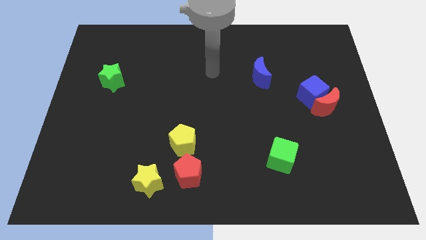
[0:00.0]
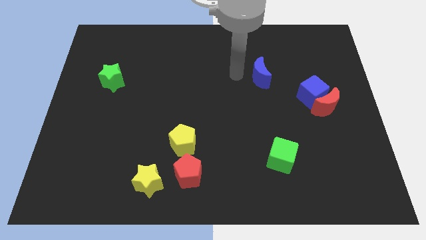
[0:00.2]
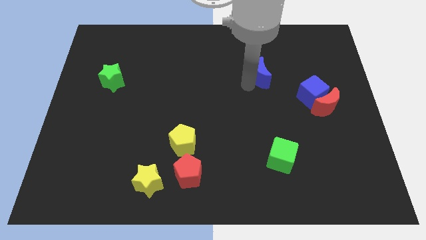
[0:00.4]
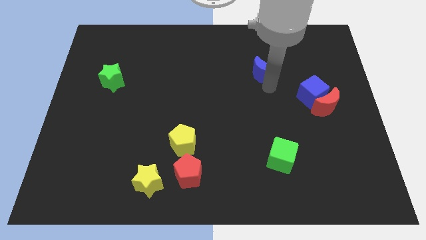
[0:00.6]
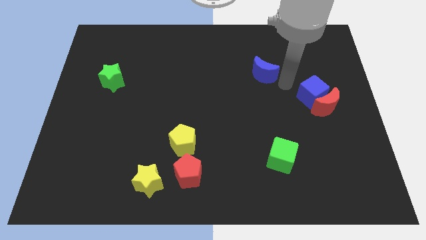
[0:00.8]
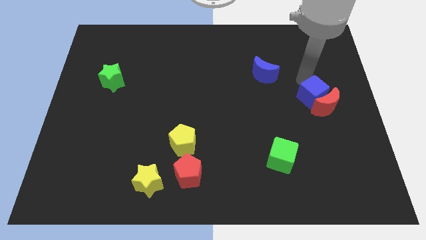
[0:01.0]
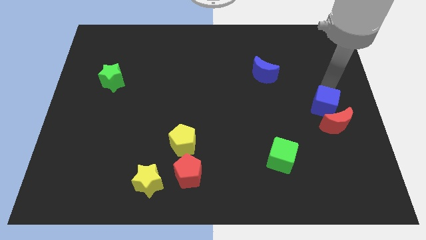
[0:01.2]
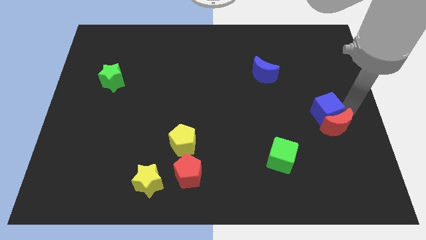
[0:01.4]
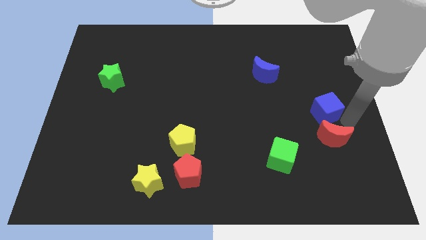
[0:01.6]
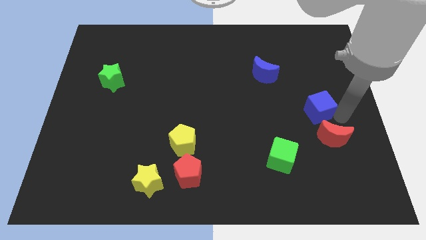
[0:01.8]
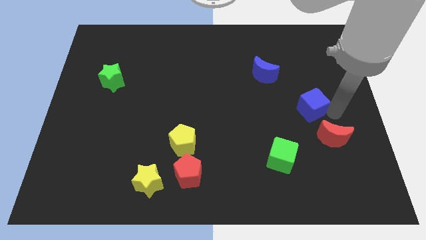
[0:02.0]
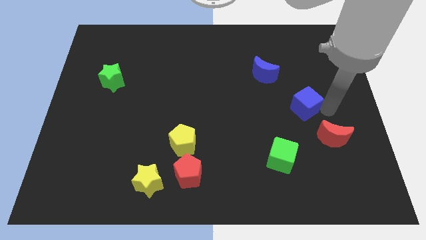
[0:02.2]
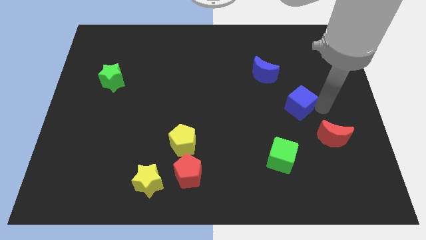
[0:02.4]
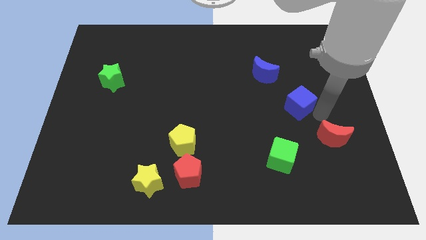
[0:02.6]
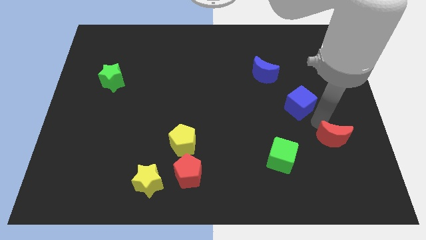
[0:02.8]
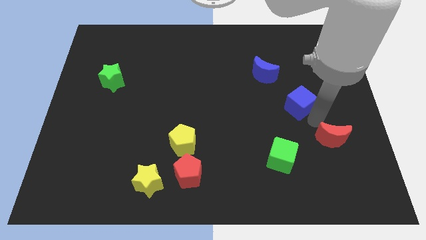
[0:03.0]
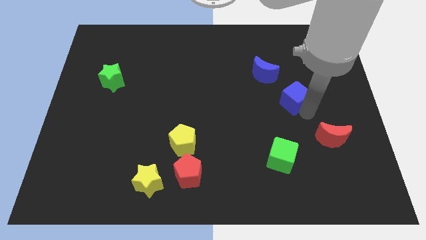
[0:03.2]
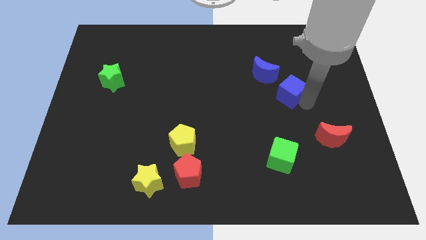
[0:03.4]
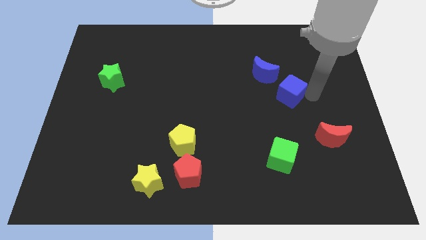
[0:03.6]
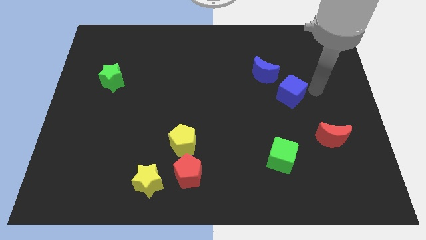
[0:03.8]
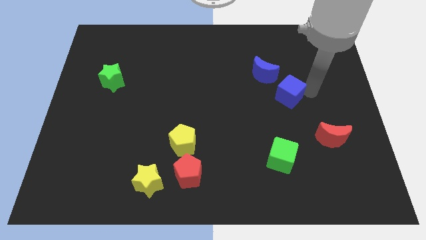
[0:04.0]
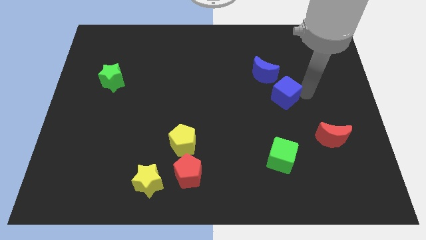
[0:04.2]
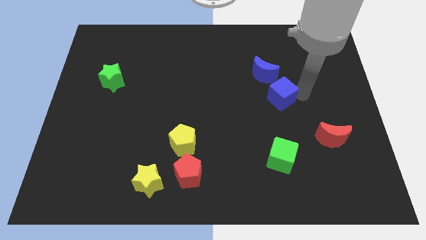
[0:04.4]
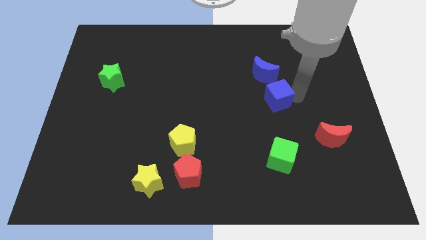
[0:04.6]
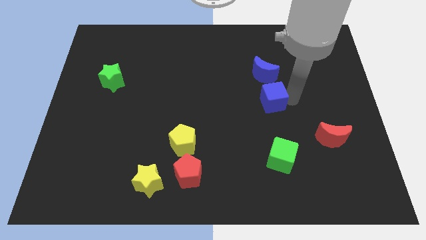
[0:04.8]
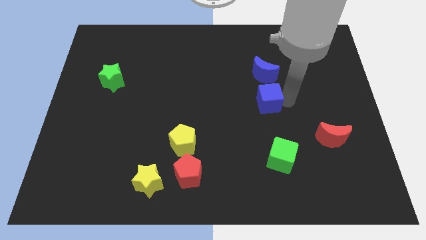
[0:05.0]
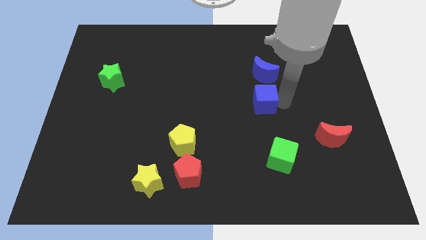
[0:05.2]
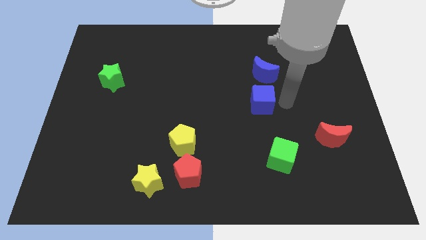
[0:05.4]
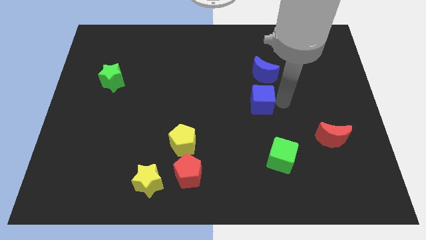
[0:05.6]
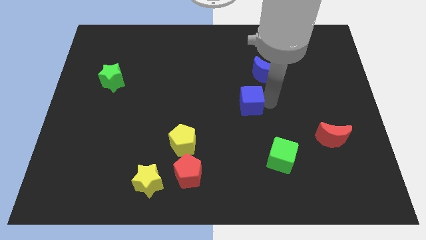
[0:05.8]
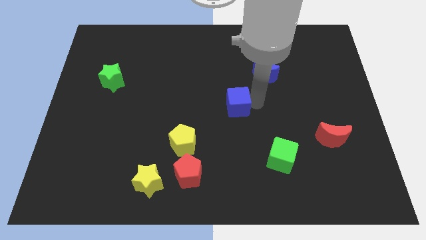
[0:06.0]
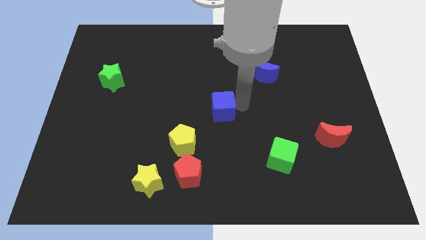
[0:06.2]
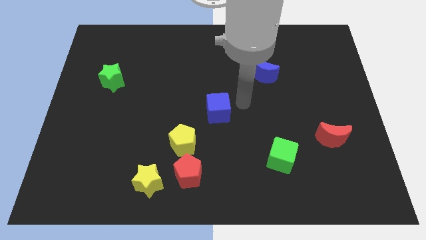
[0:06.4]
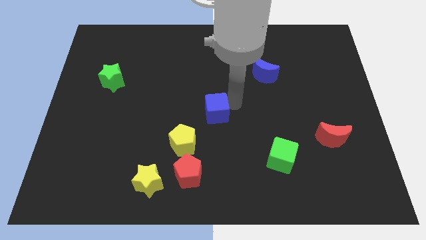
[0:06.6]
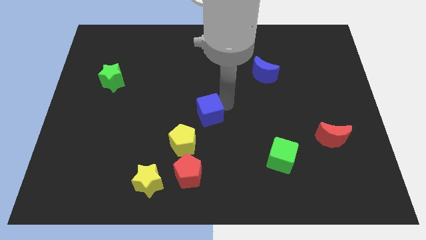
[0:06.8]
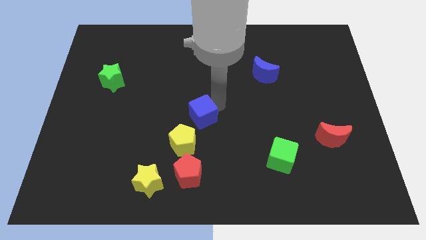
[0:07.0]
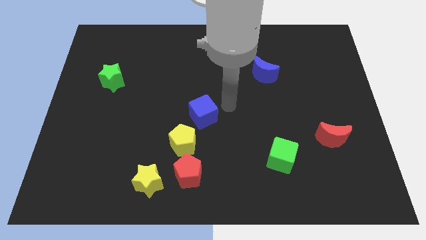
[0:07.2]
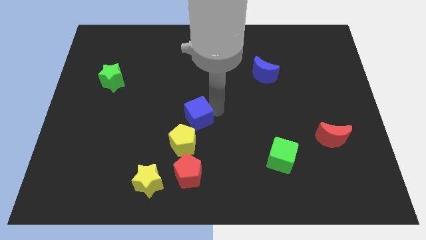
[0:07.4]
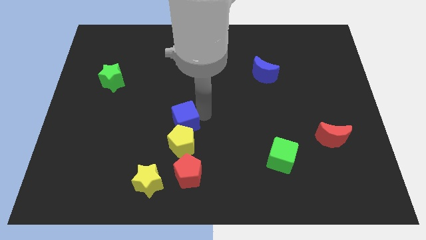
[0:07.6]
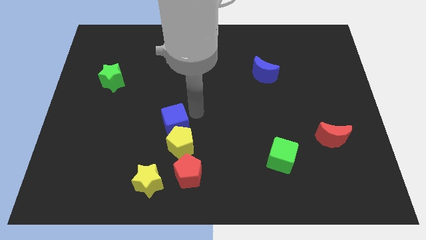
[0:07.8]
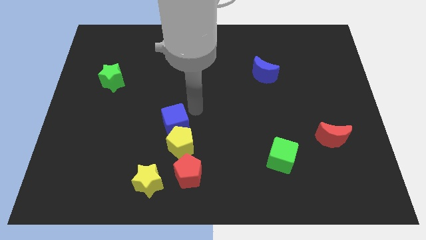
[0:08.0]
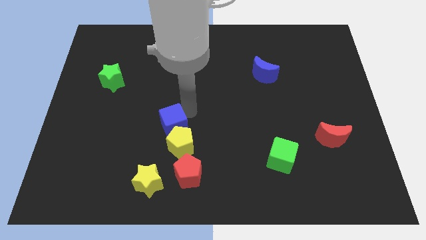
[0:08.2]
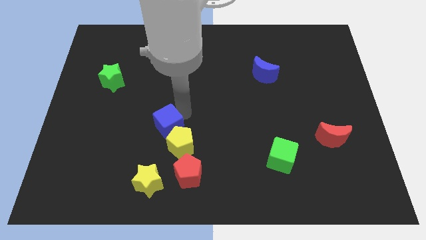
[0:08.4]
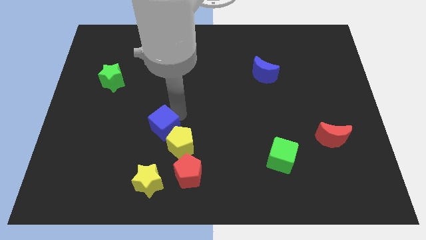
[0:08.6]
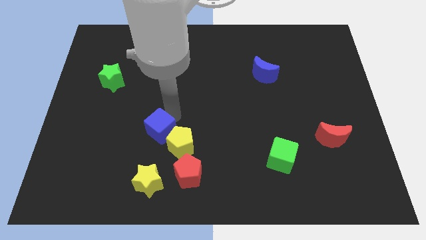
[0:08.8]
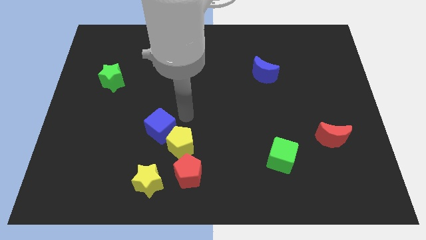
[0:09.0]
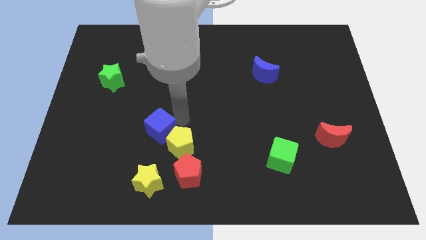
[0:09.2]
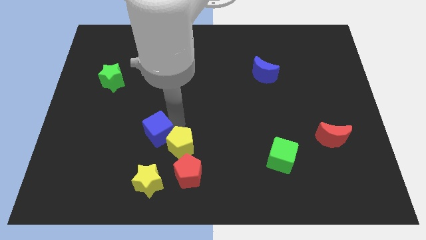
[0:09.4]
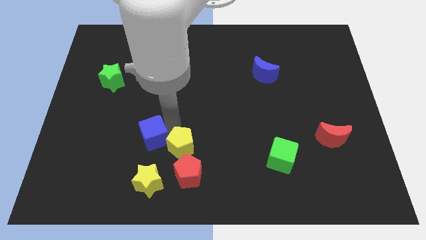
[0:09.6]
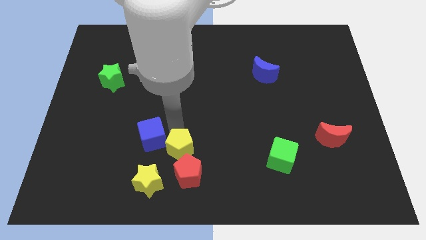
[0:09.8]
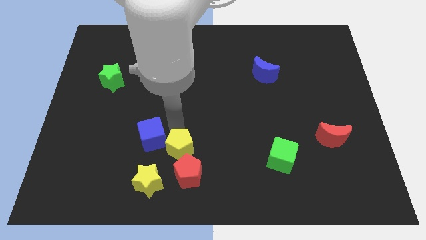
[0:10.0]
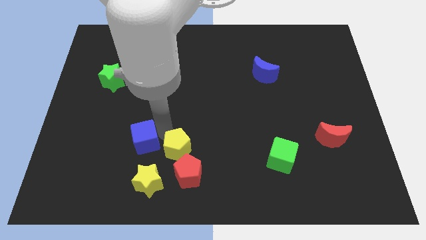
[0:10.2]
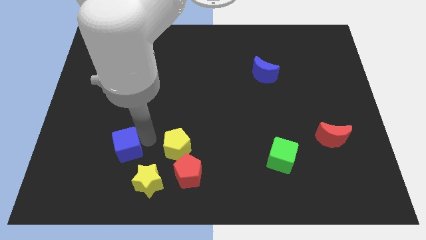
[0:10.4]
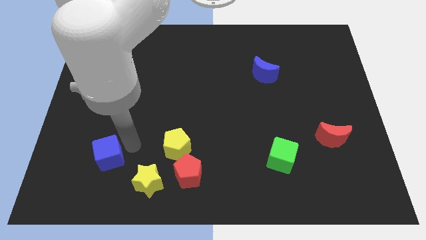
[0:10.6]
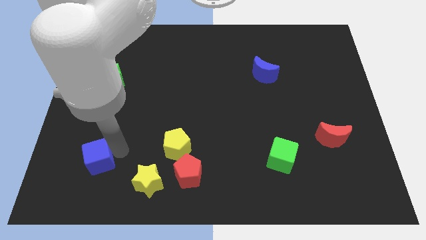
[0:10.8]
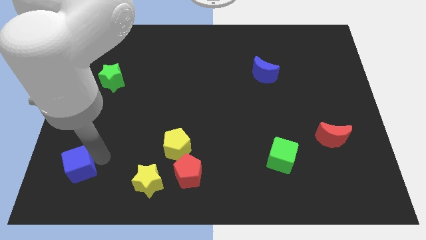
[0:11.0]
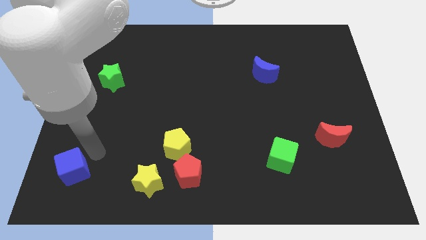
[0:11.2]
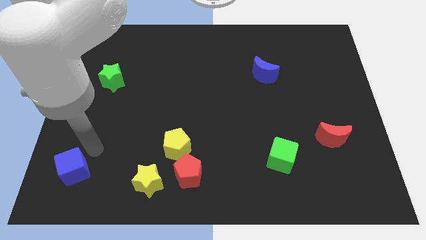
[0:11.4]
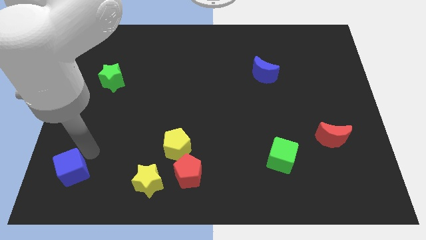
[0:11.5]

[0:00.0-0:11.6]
push the blue cube to the bottom left corner
